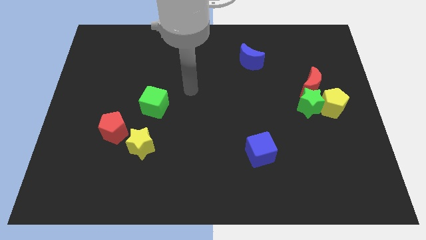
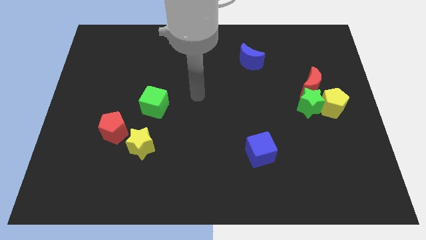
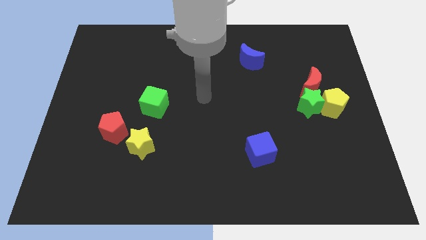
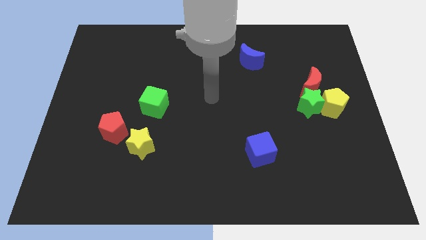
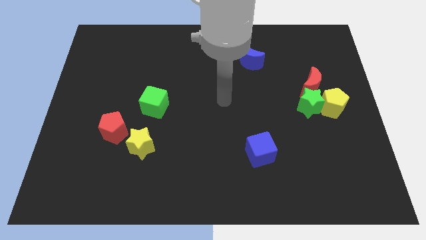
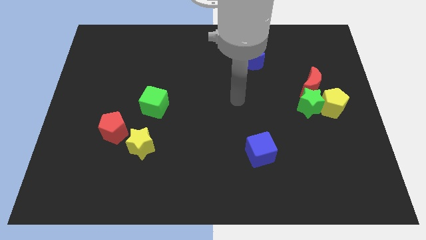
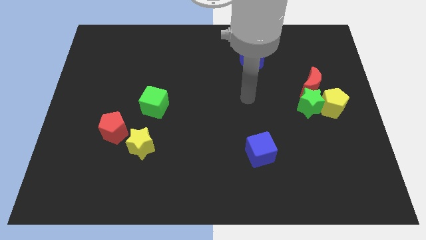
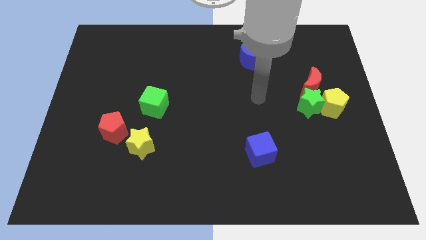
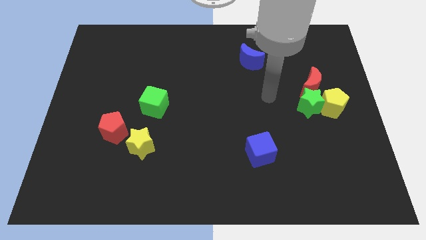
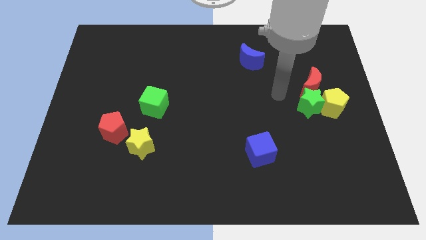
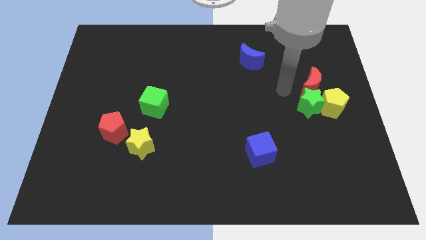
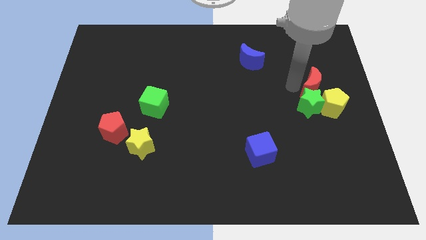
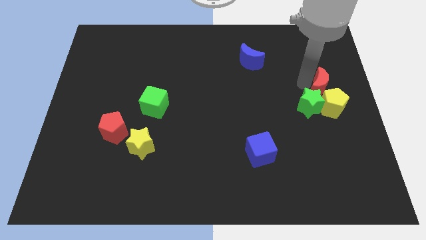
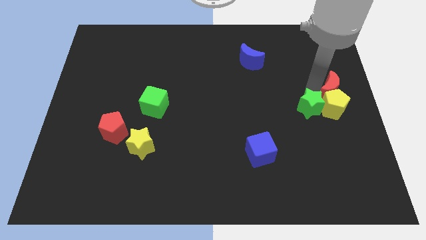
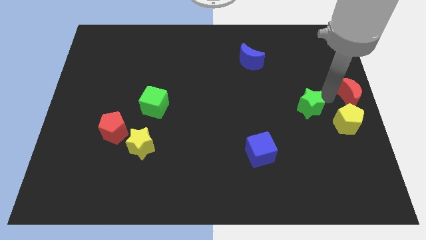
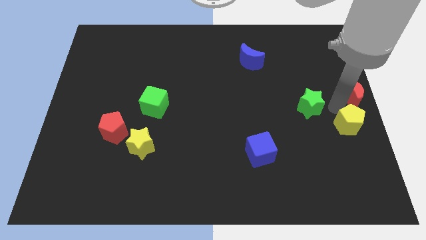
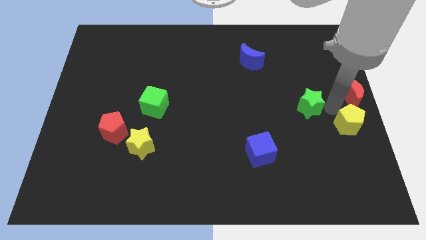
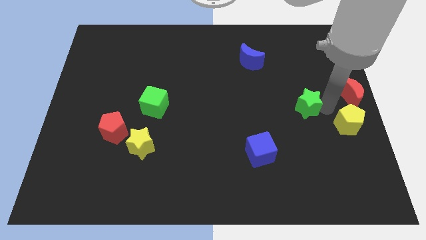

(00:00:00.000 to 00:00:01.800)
pull the green star apart from the yellow pentagon and red moon

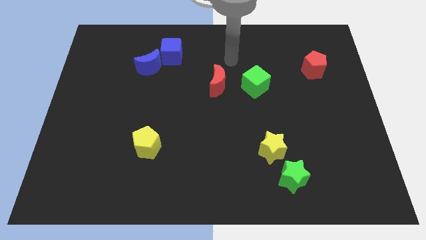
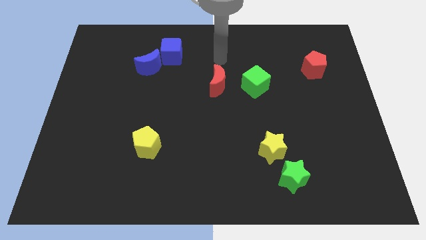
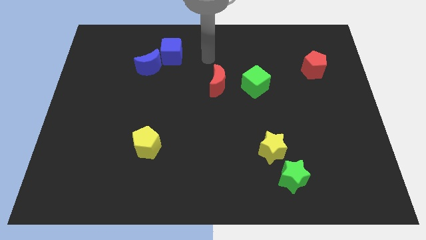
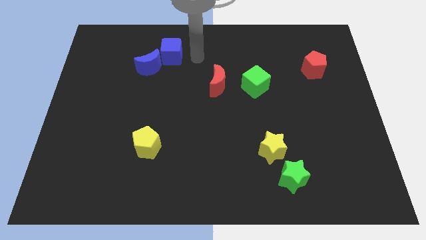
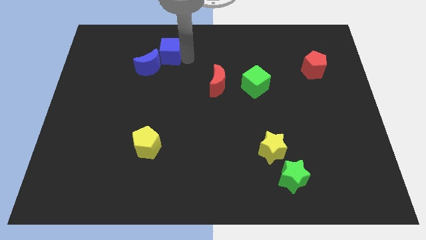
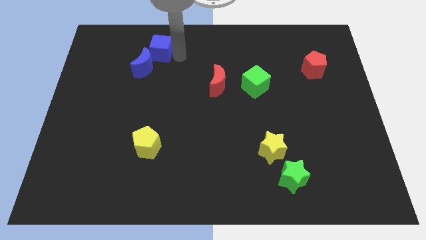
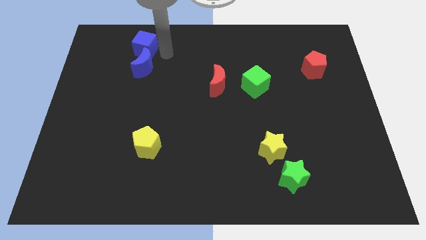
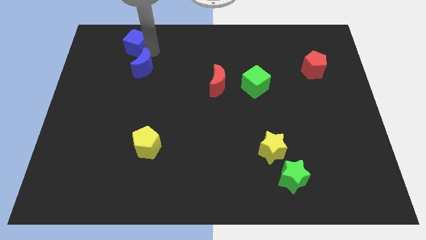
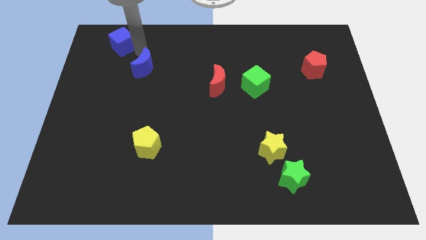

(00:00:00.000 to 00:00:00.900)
move the blue moon away from the blue cube

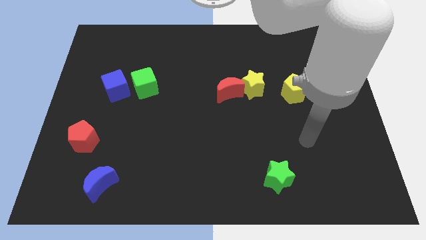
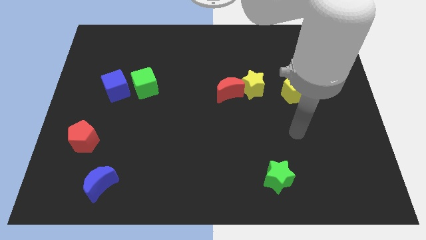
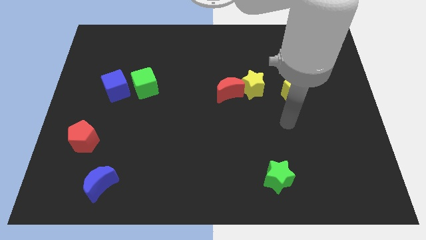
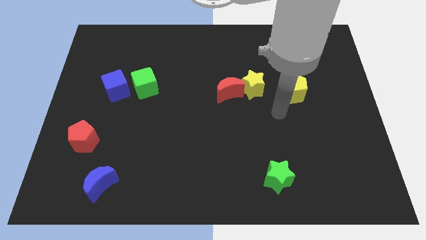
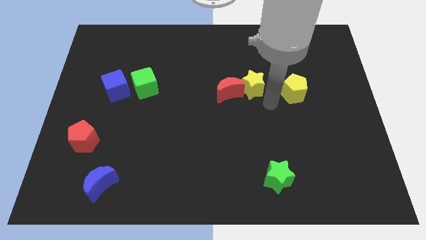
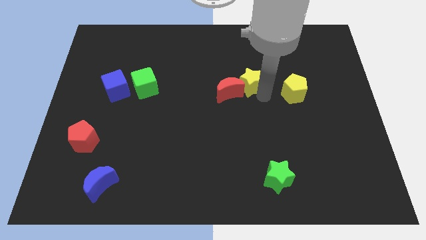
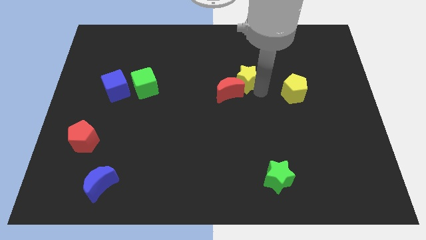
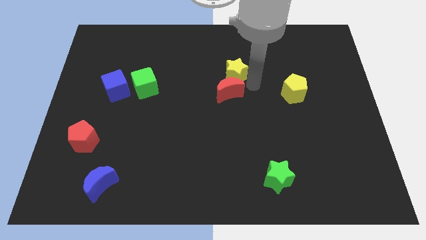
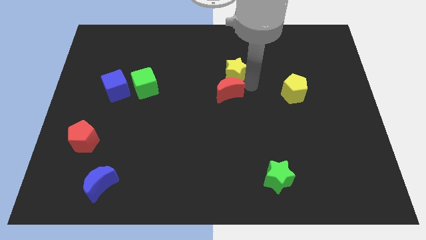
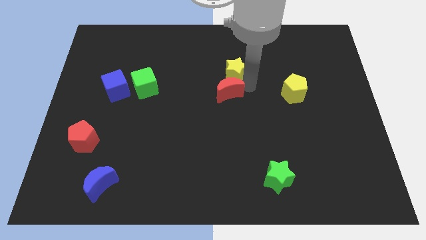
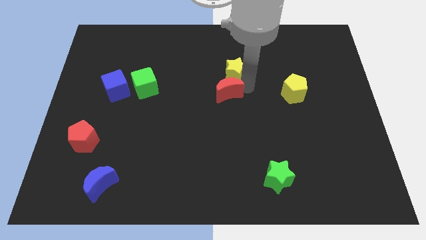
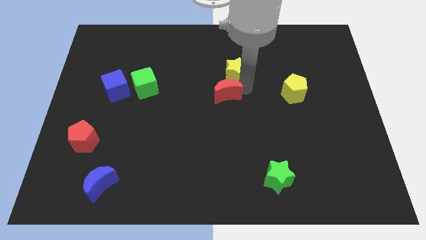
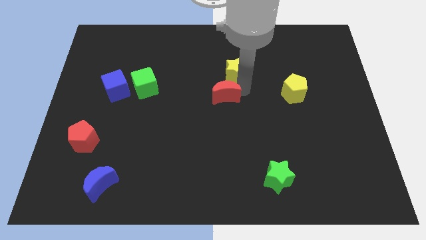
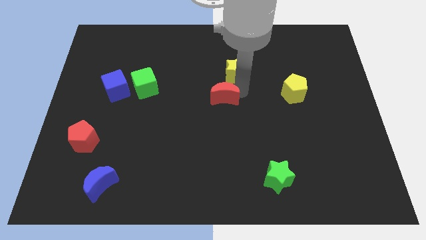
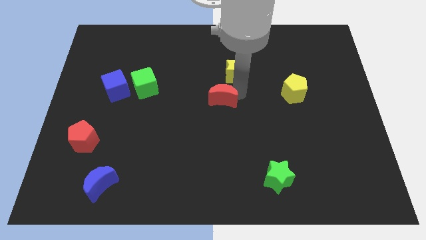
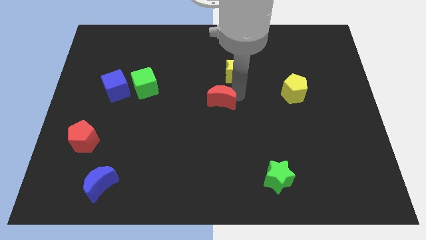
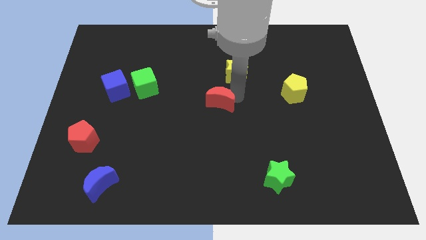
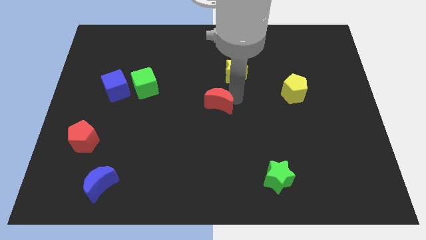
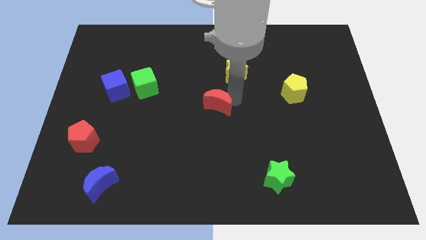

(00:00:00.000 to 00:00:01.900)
pull the red moon apart from the yellow star

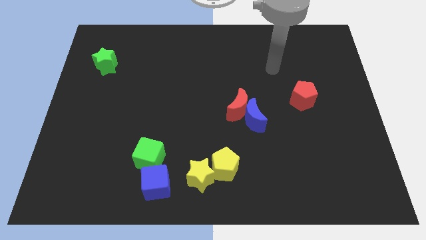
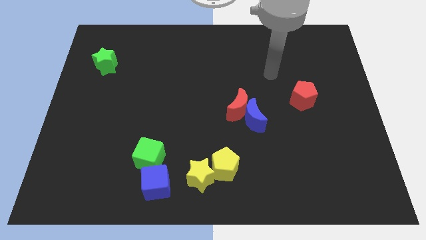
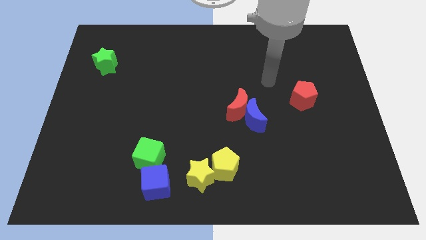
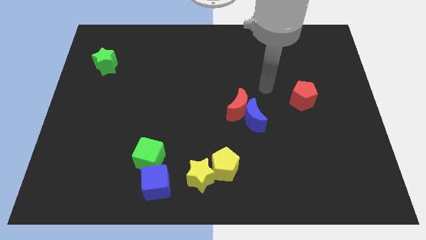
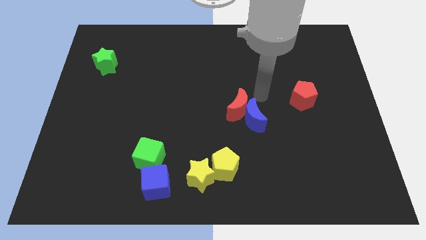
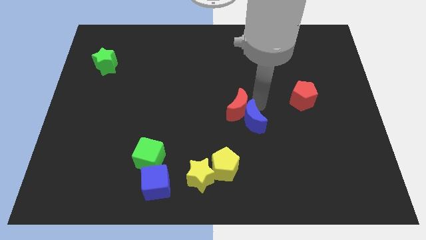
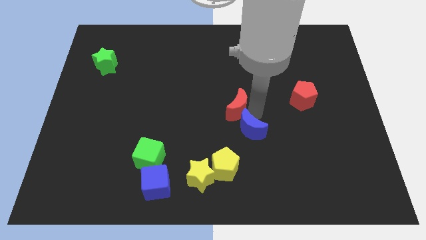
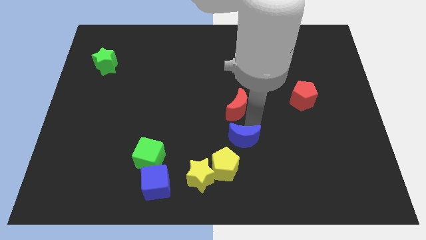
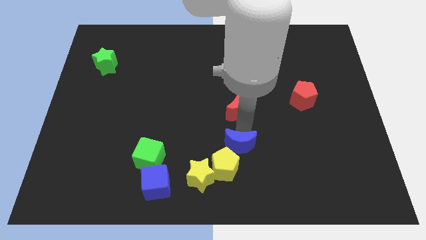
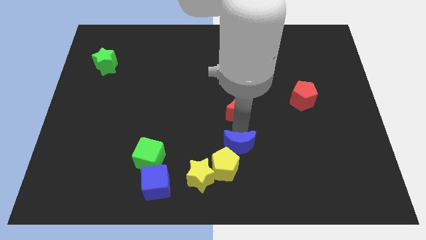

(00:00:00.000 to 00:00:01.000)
pull the red moon apart from the blue moon

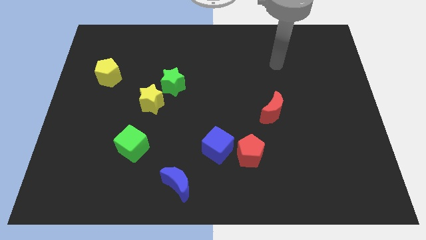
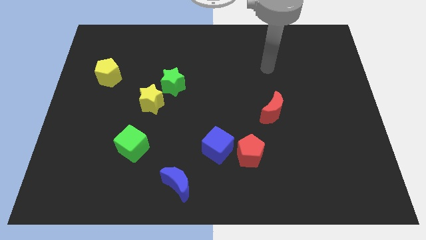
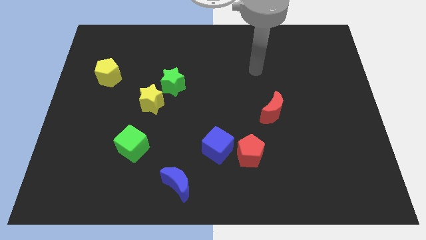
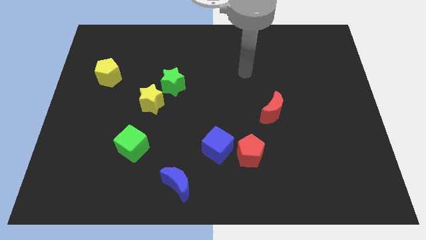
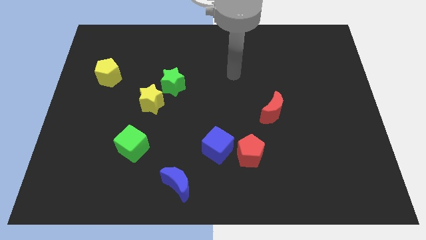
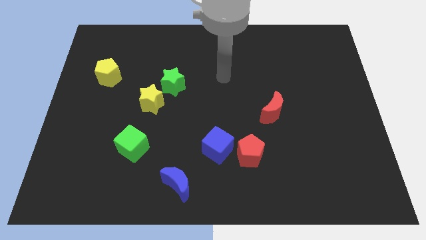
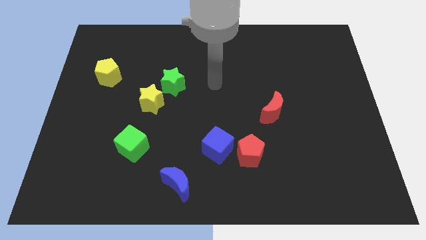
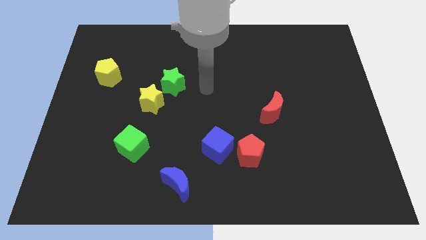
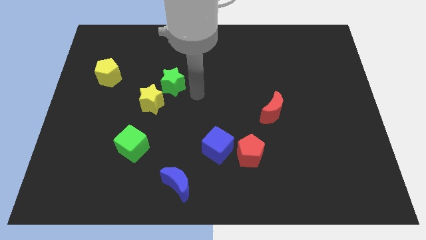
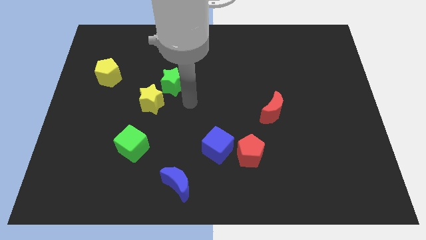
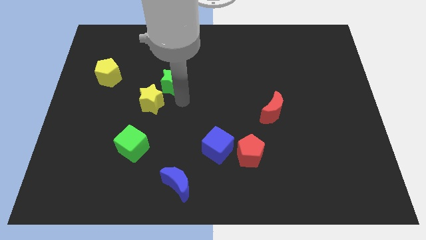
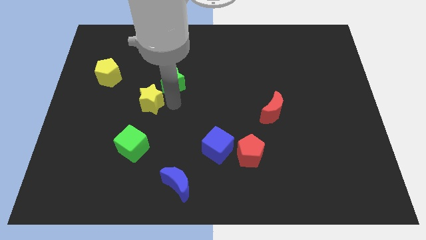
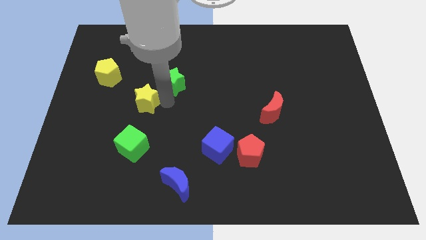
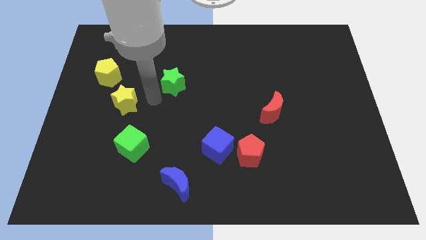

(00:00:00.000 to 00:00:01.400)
move the green star away from the yellow star

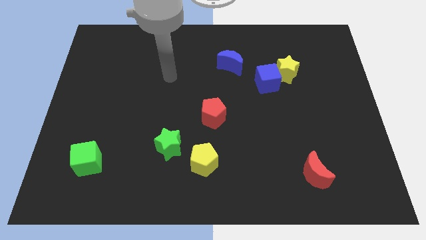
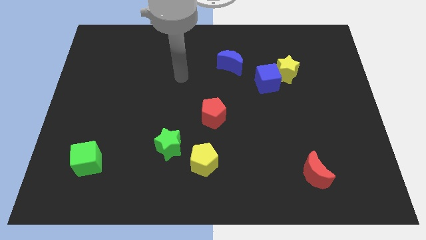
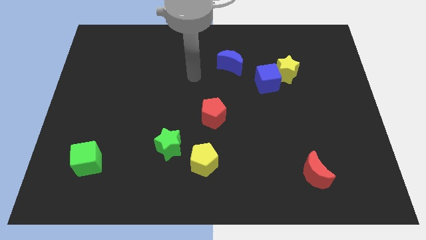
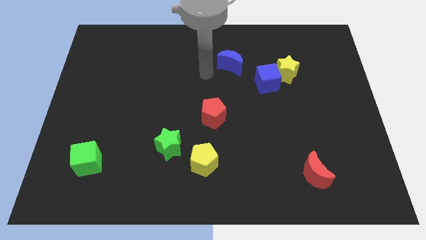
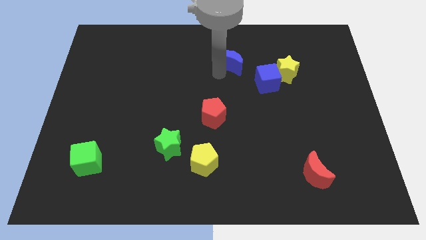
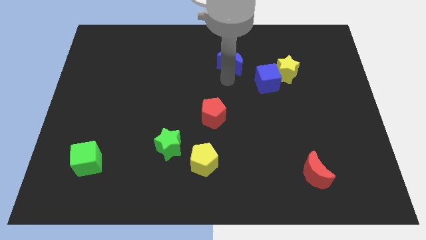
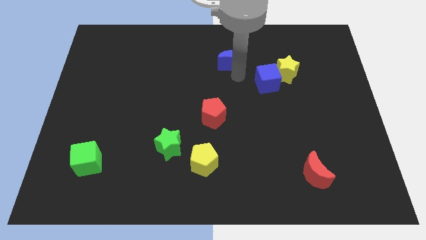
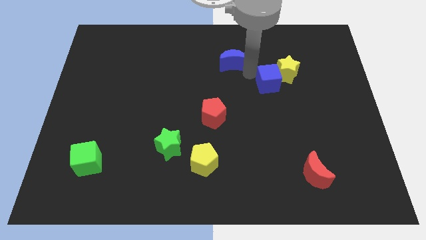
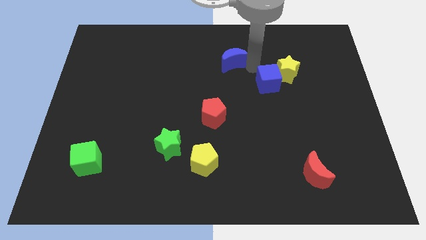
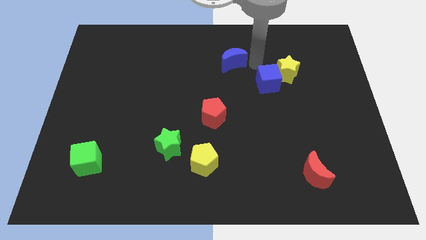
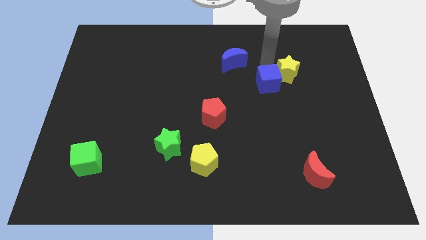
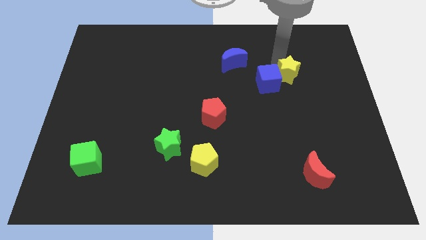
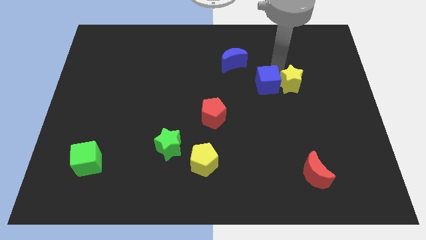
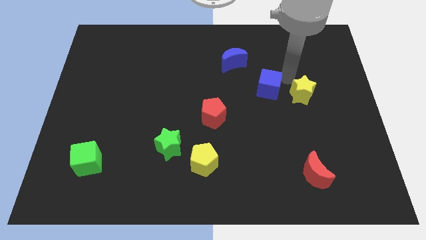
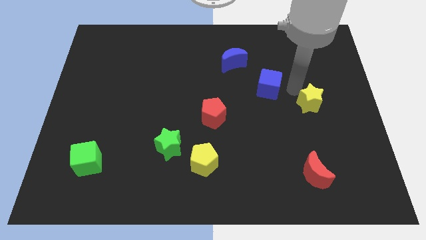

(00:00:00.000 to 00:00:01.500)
pull the blue cube apart from the yellow star

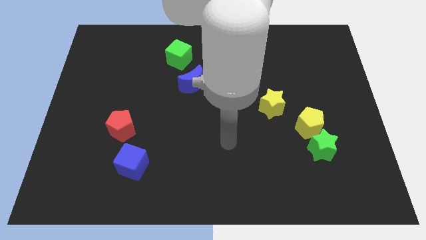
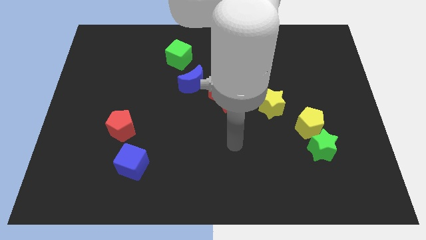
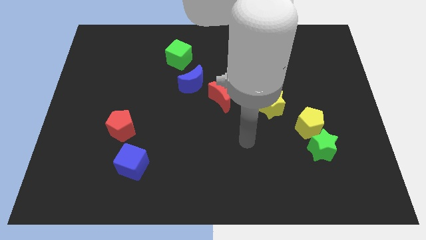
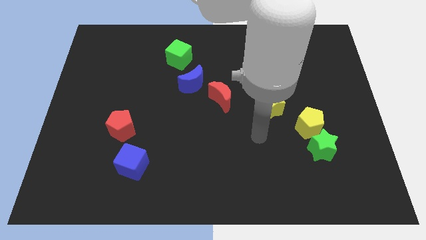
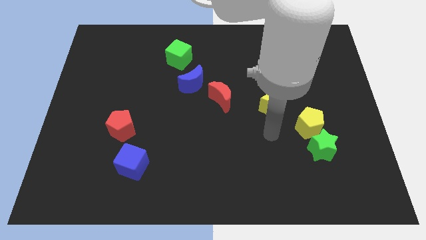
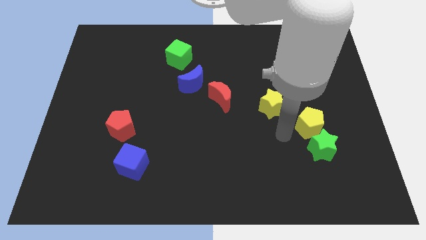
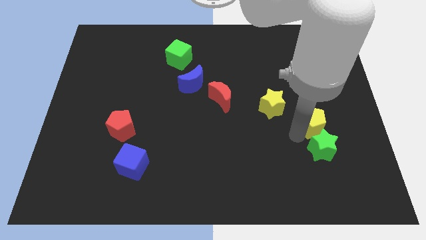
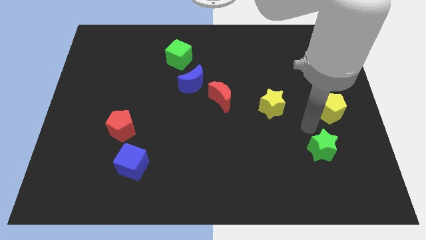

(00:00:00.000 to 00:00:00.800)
move the green star away from the yellow pentagon
